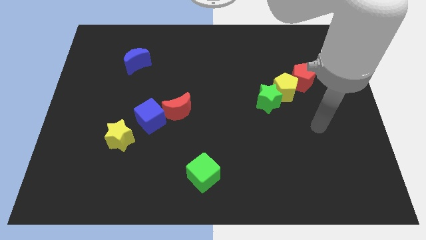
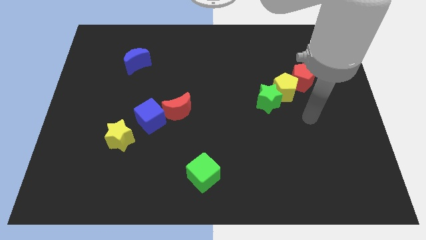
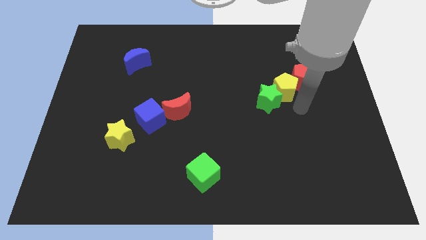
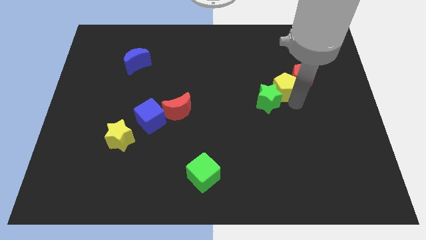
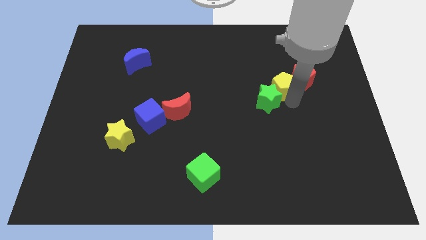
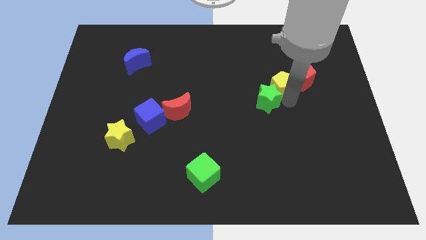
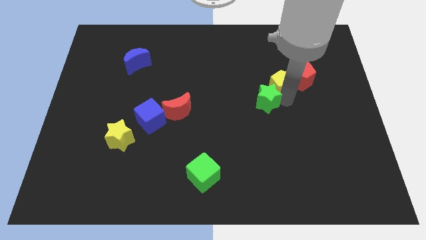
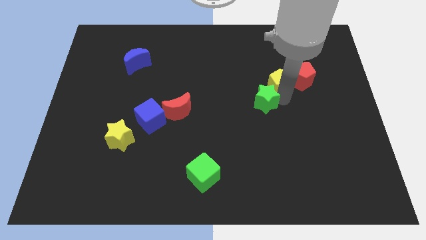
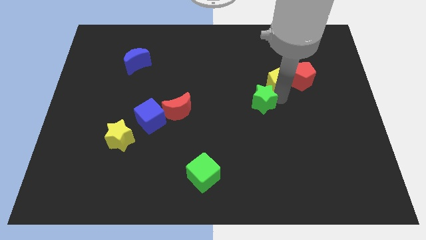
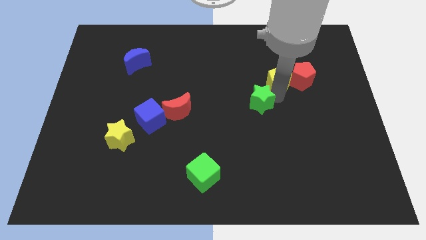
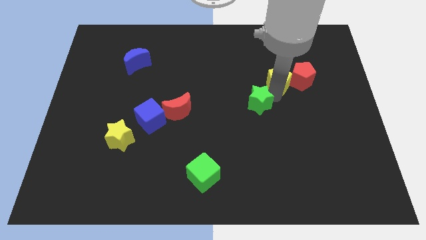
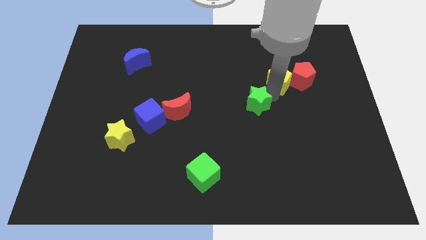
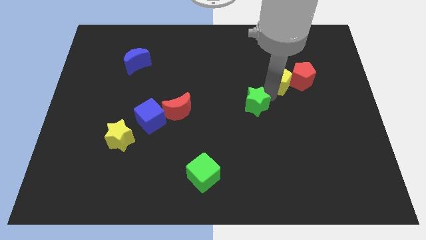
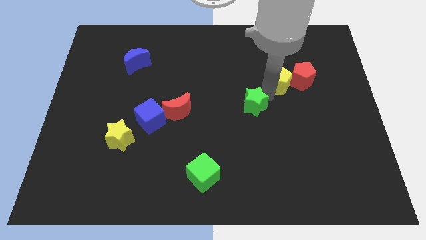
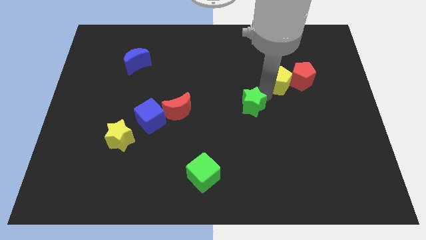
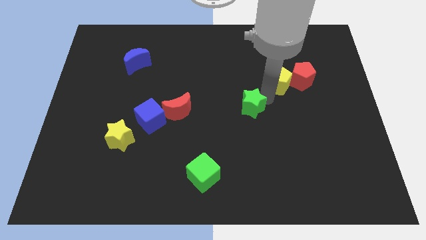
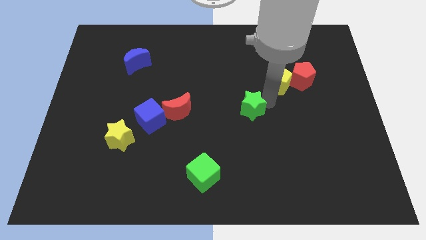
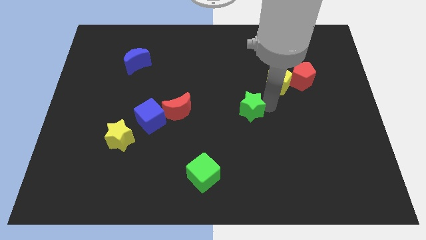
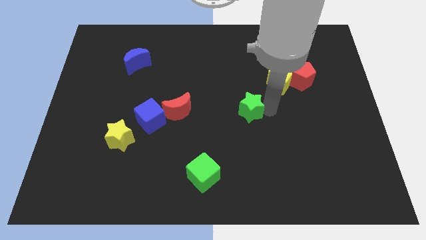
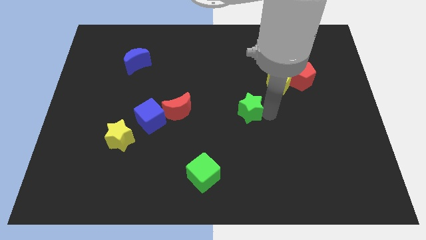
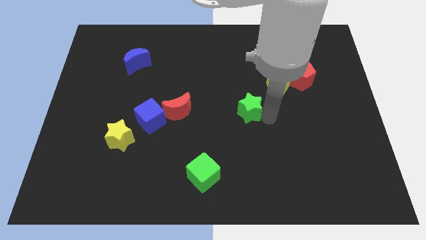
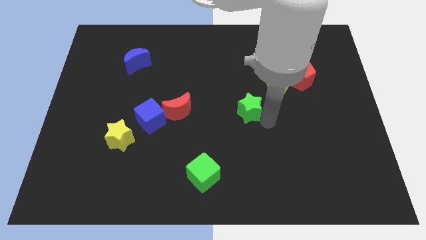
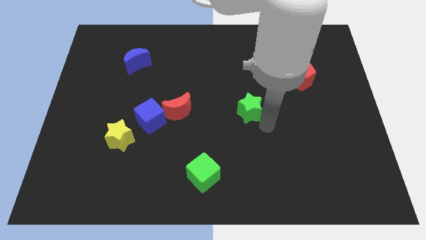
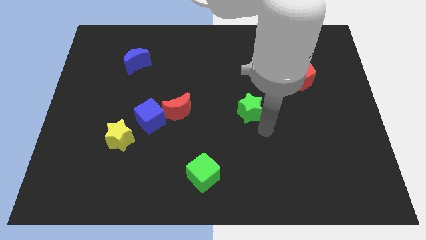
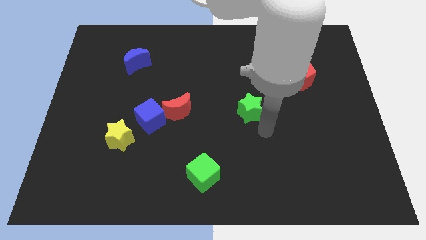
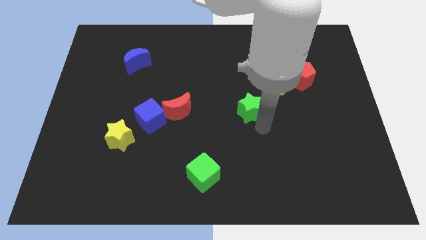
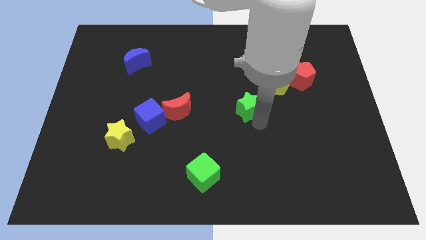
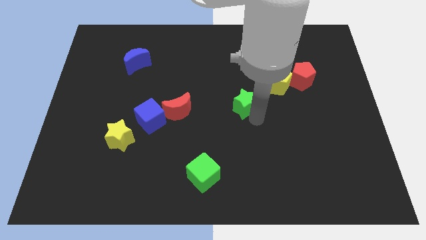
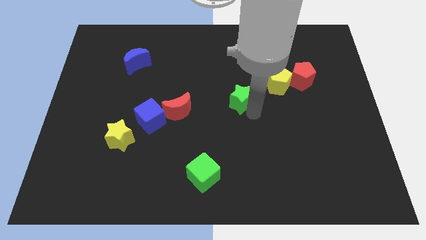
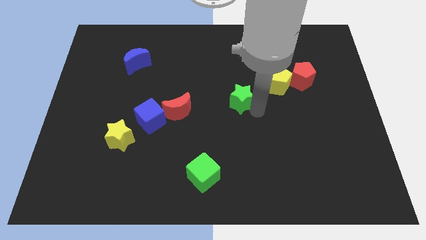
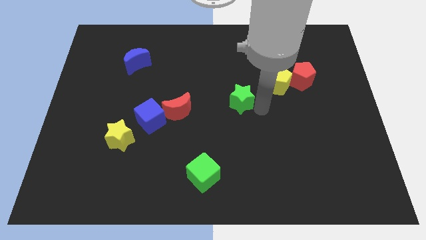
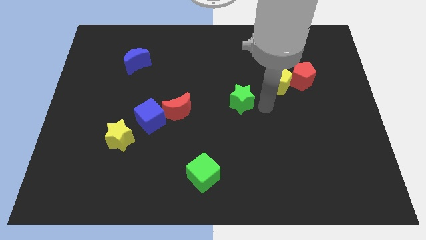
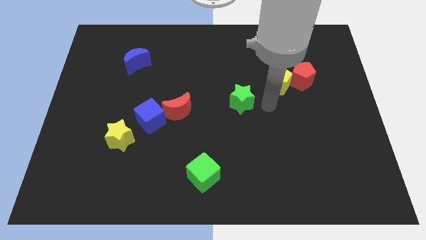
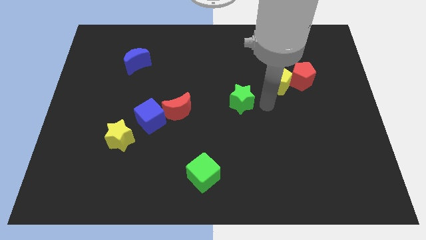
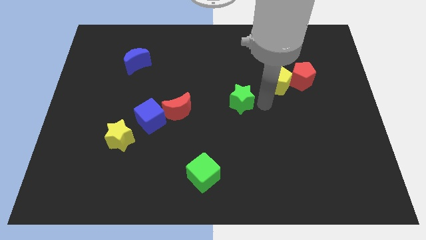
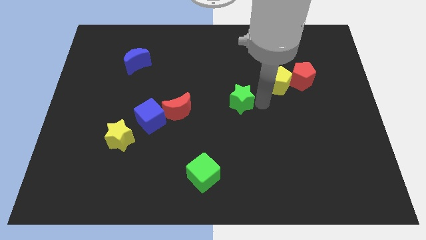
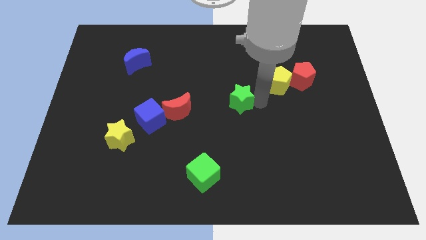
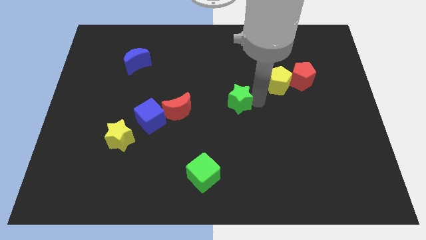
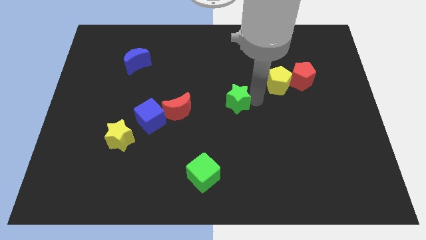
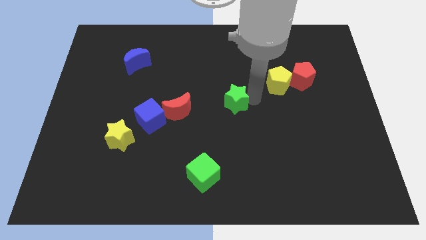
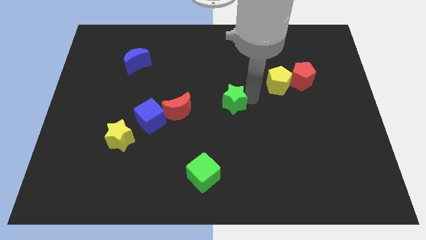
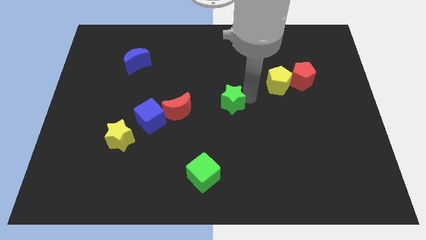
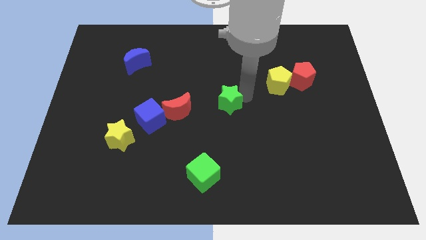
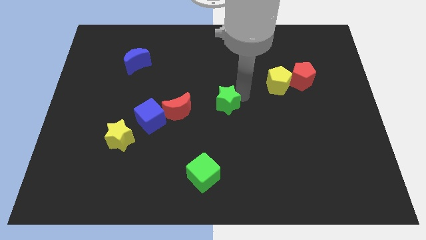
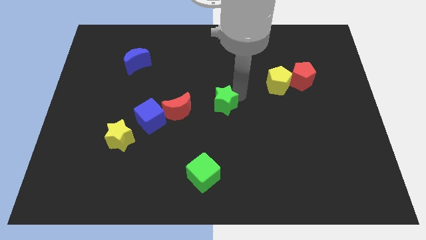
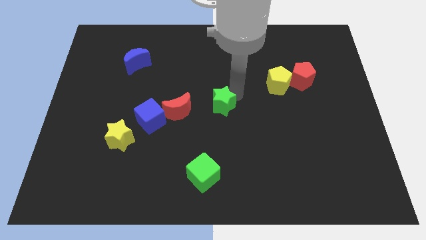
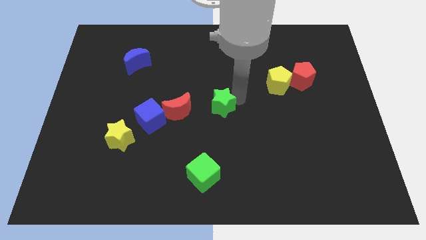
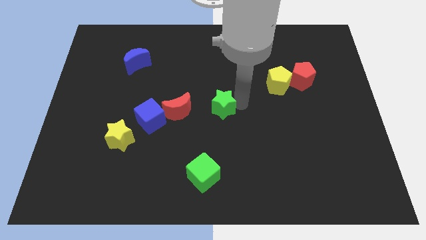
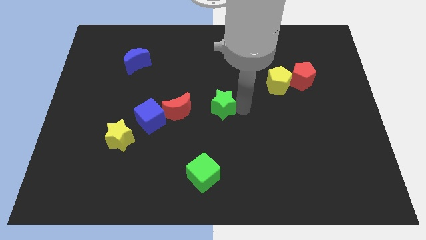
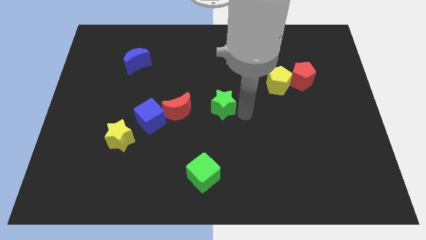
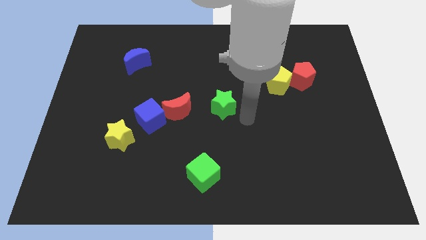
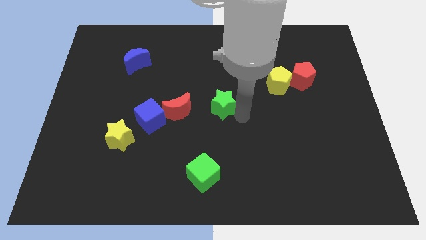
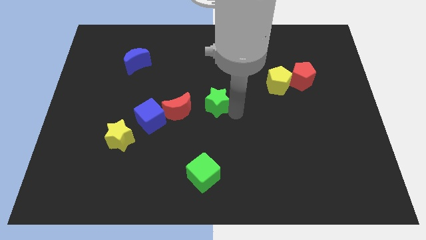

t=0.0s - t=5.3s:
push the green star to the top right of the red moon

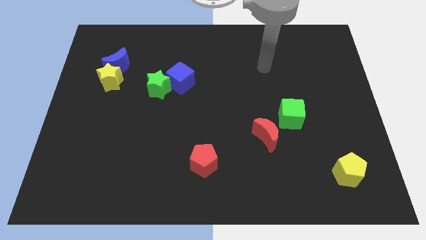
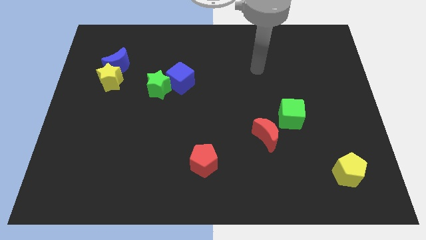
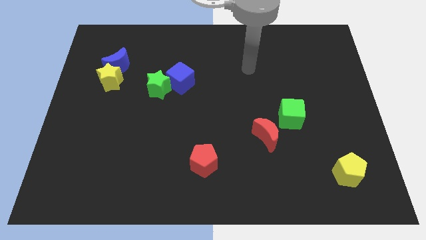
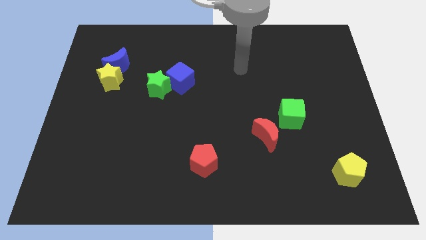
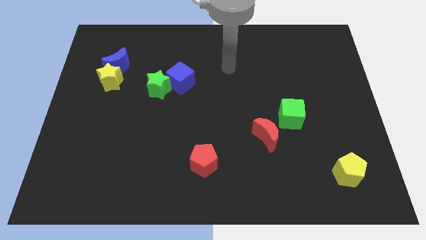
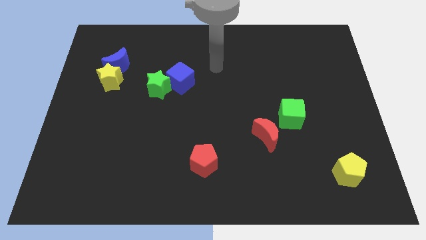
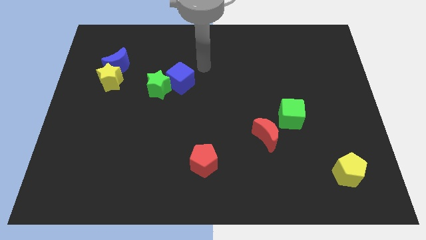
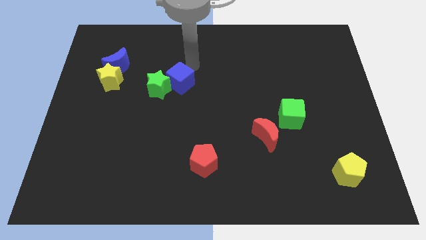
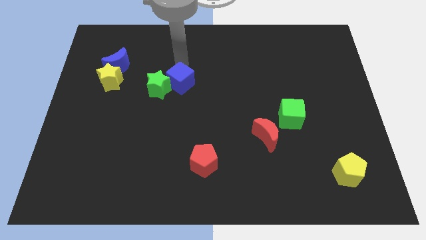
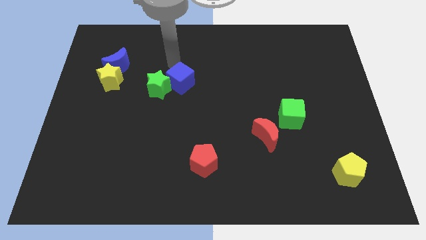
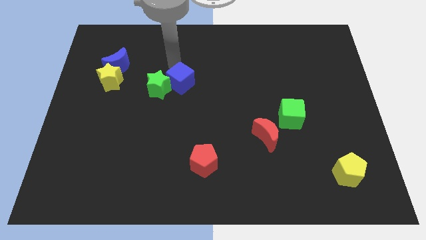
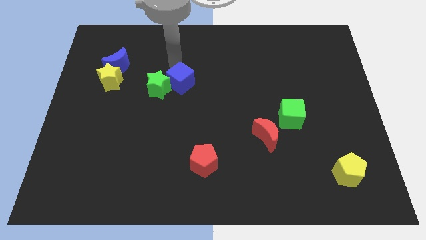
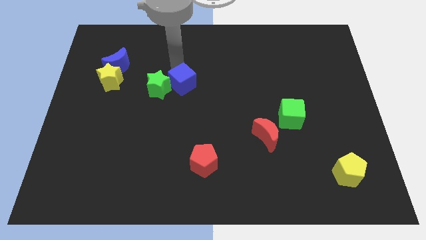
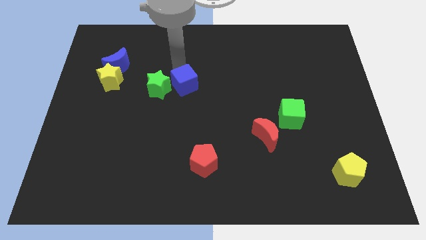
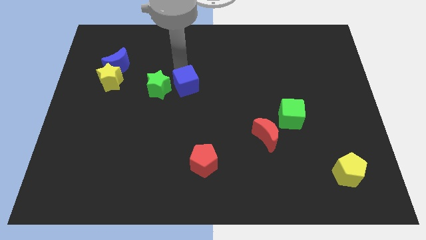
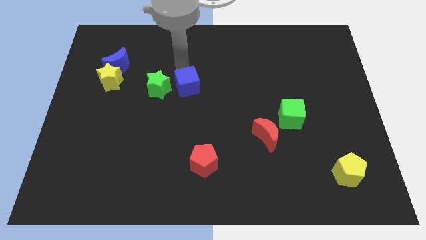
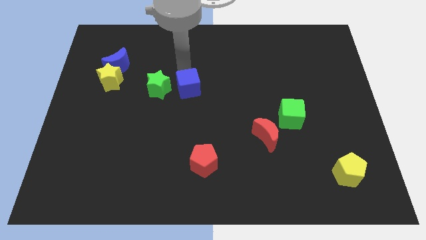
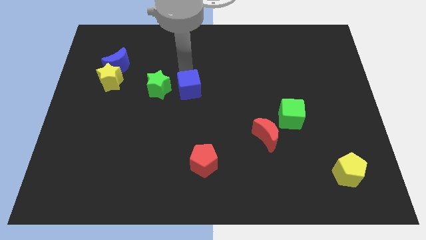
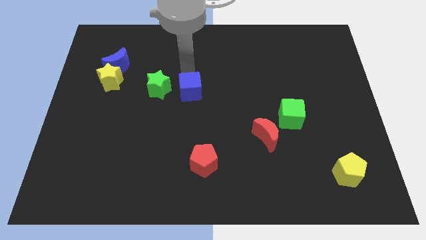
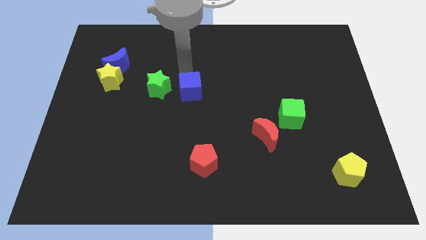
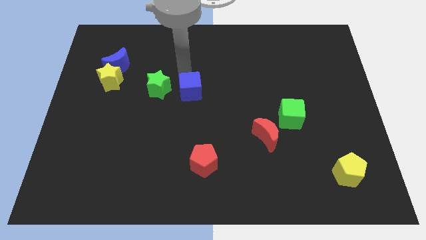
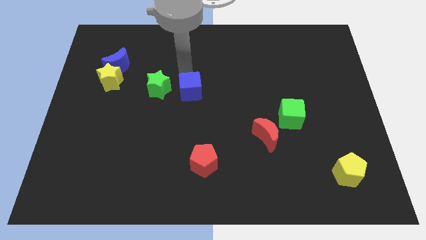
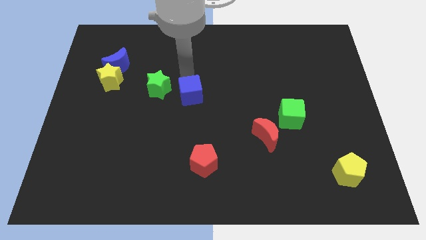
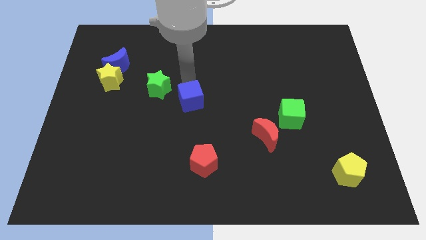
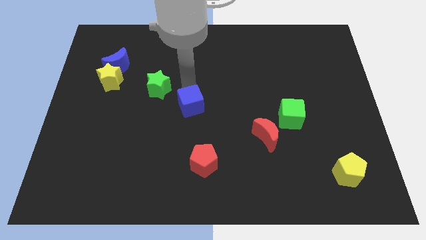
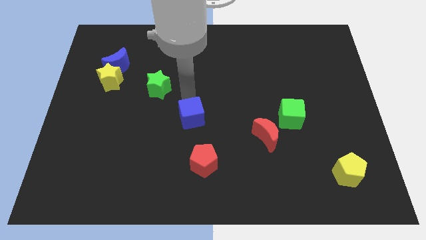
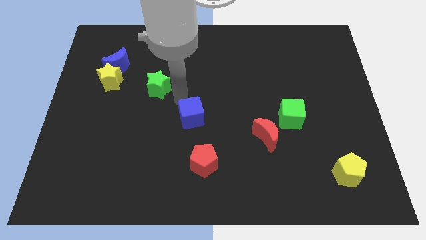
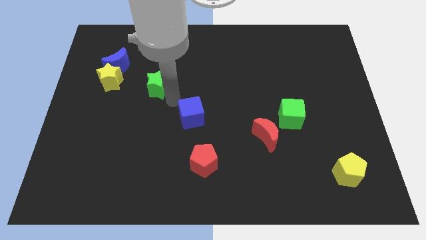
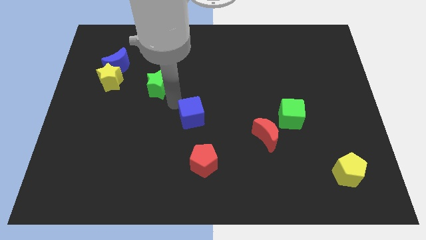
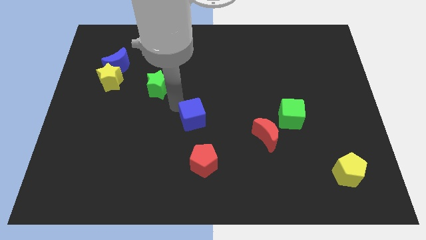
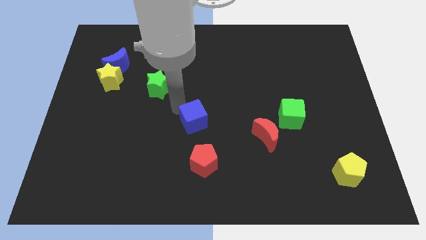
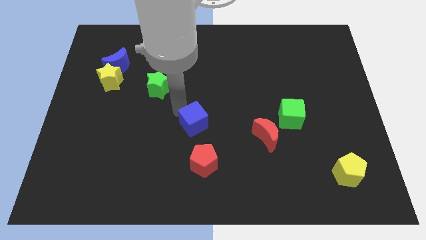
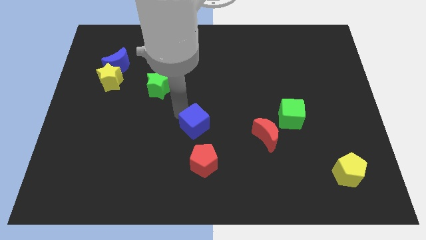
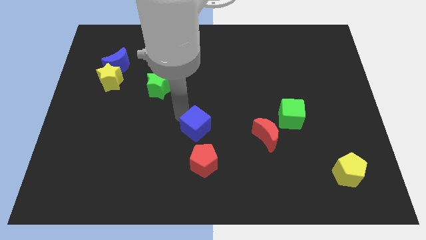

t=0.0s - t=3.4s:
slide the blue cube left of the red moon
